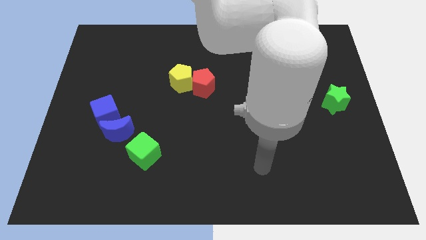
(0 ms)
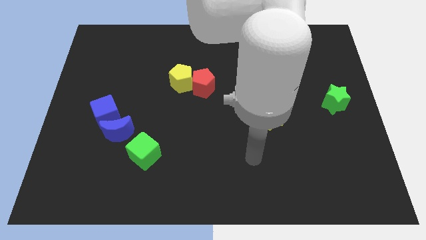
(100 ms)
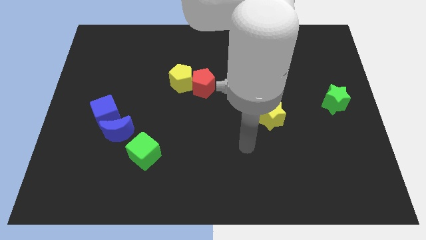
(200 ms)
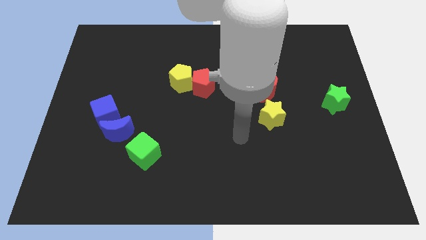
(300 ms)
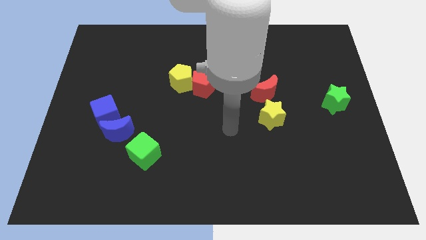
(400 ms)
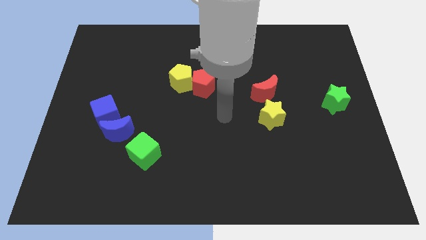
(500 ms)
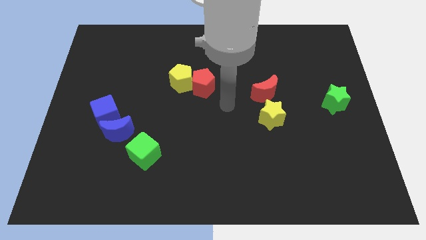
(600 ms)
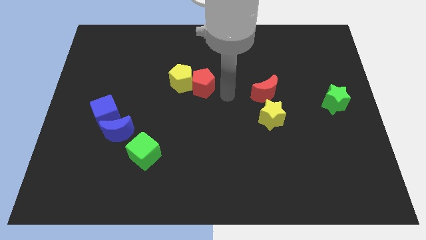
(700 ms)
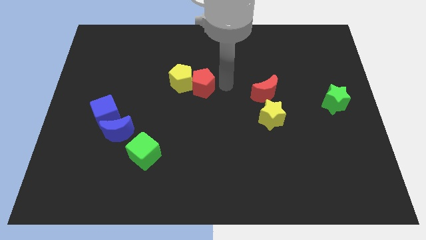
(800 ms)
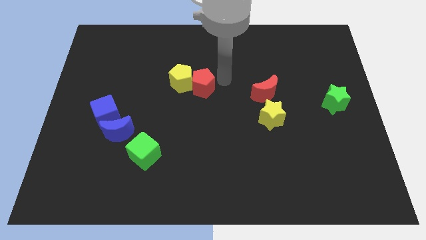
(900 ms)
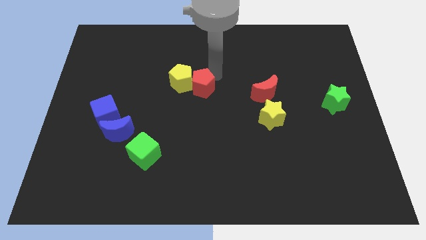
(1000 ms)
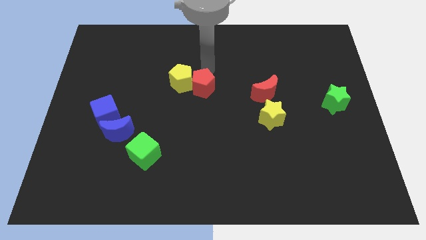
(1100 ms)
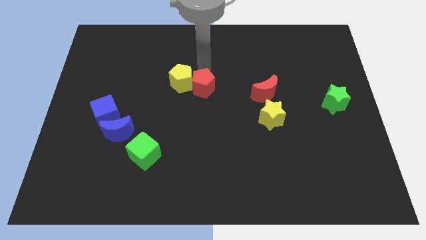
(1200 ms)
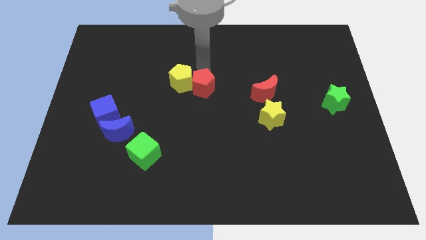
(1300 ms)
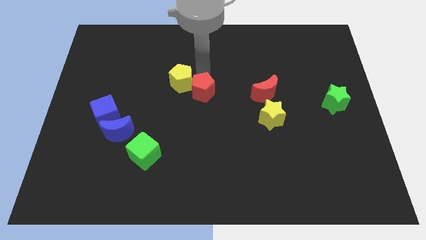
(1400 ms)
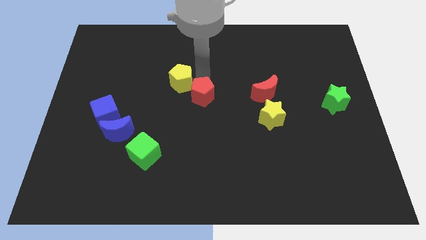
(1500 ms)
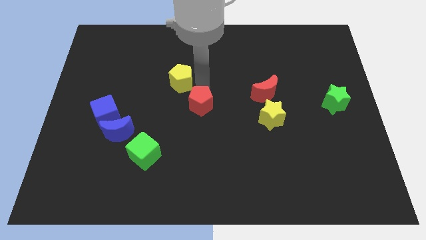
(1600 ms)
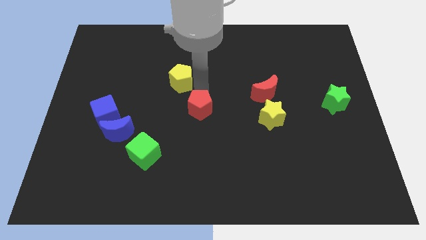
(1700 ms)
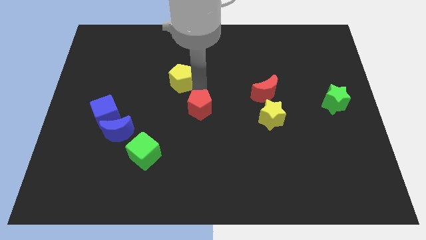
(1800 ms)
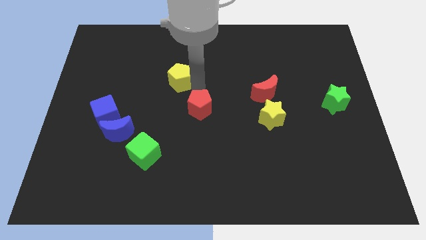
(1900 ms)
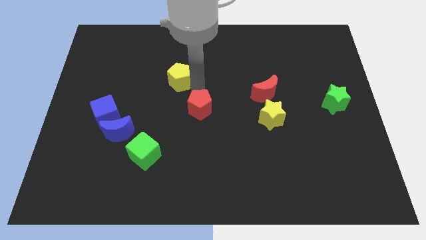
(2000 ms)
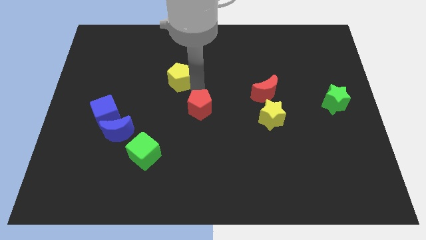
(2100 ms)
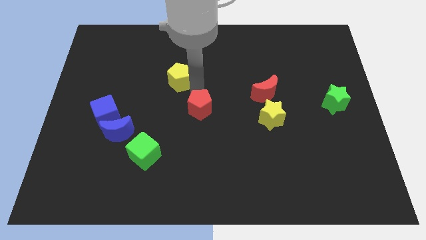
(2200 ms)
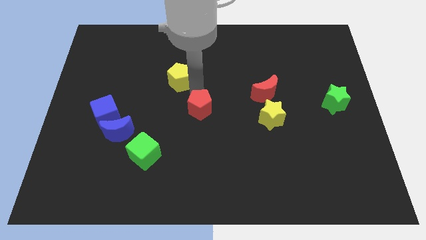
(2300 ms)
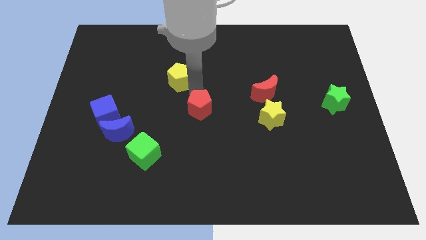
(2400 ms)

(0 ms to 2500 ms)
push the red pentagon a little downwards

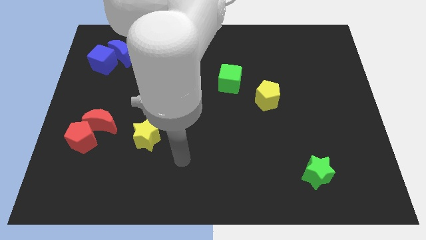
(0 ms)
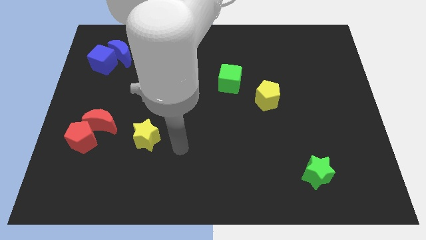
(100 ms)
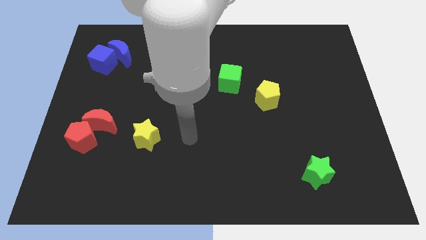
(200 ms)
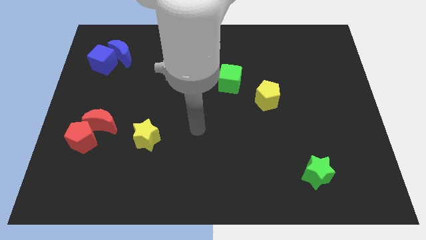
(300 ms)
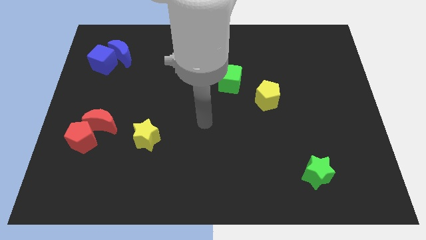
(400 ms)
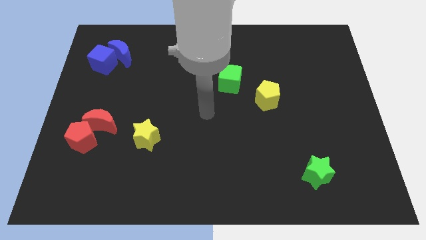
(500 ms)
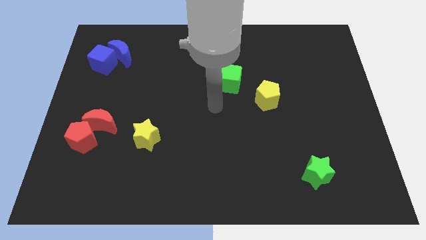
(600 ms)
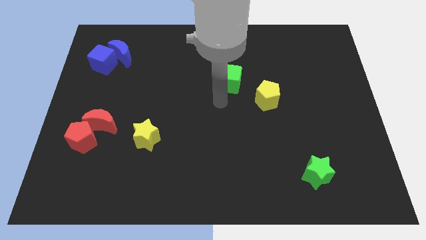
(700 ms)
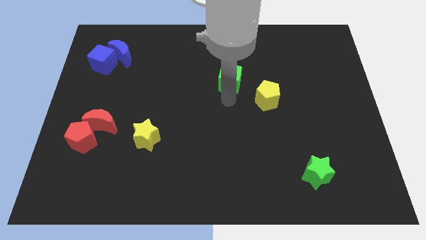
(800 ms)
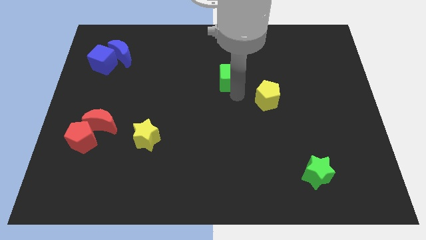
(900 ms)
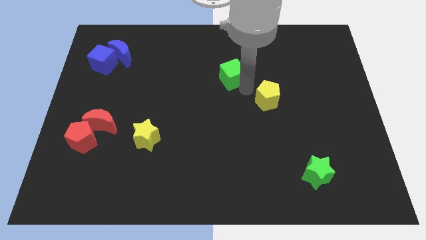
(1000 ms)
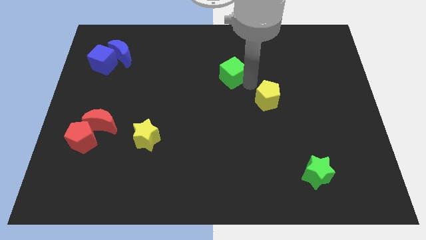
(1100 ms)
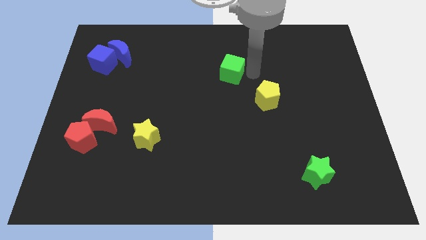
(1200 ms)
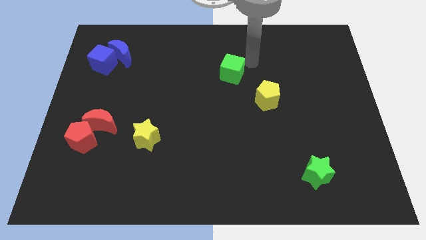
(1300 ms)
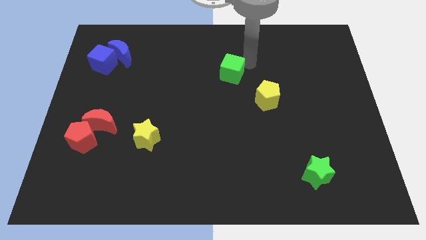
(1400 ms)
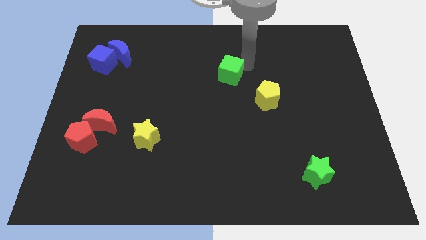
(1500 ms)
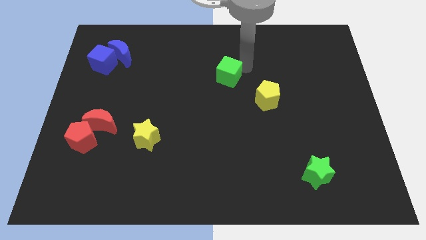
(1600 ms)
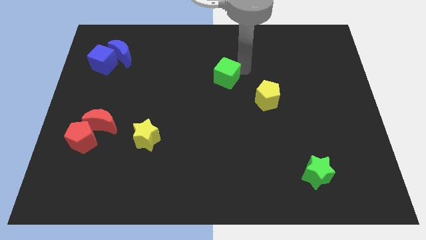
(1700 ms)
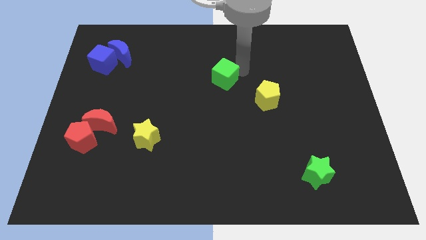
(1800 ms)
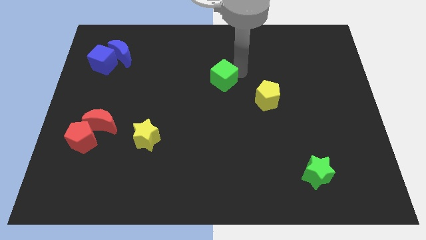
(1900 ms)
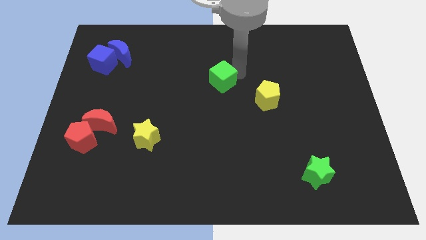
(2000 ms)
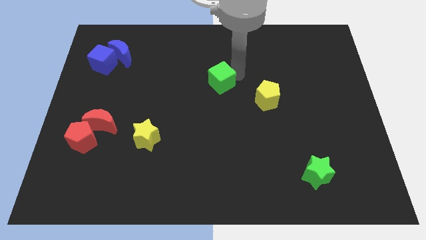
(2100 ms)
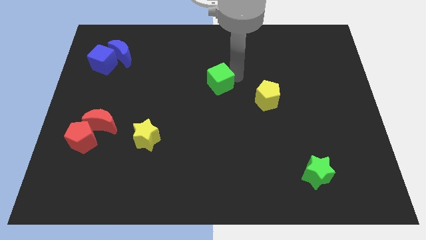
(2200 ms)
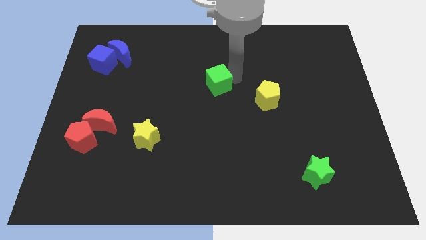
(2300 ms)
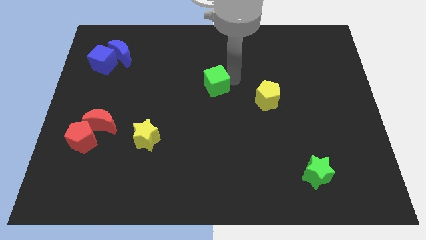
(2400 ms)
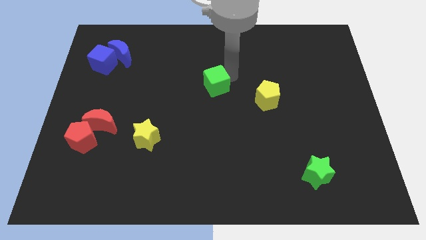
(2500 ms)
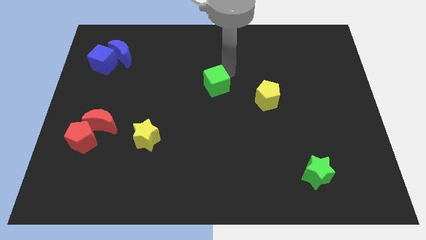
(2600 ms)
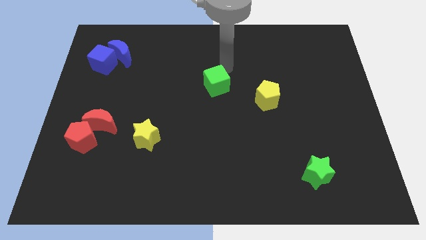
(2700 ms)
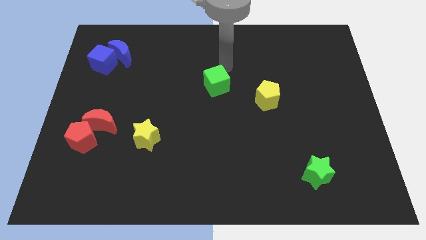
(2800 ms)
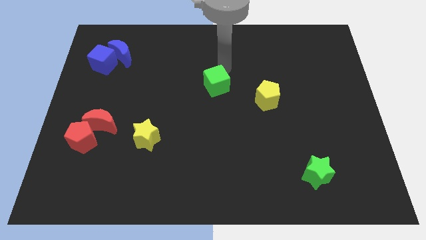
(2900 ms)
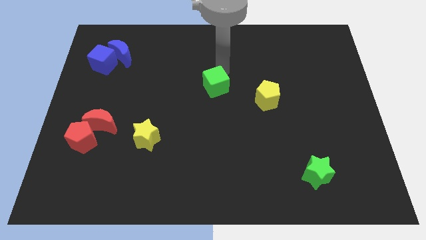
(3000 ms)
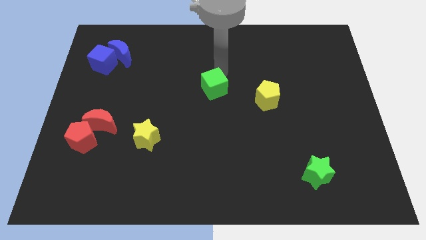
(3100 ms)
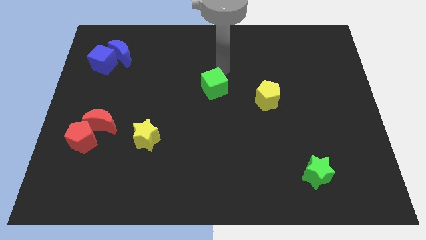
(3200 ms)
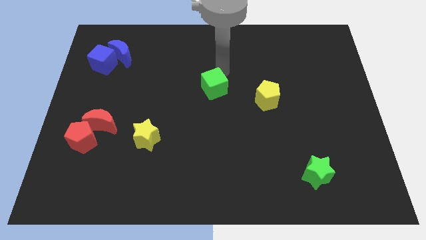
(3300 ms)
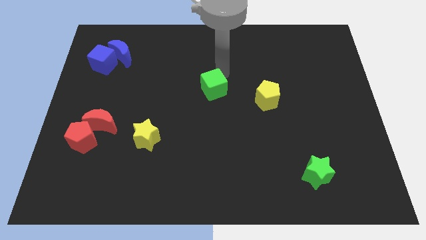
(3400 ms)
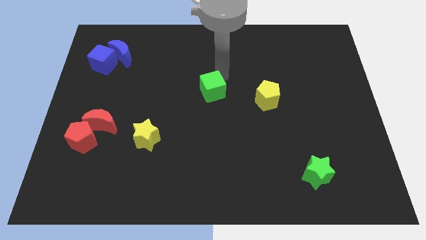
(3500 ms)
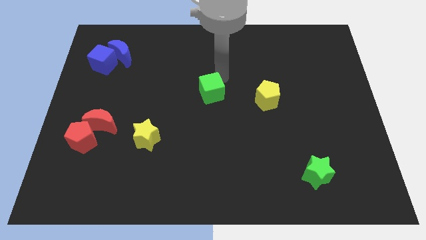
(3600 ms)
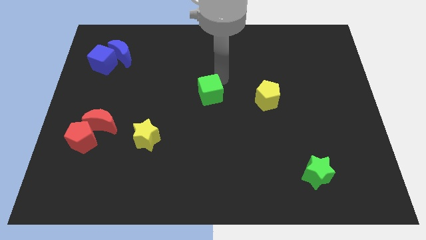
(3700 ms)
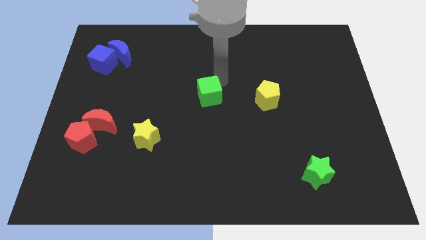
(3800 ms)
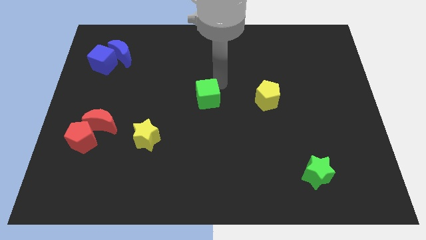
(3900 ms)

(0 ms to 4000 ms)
slightly push the green cube diagonally down and left

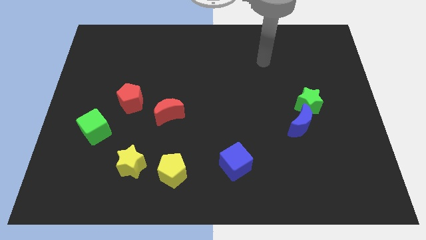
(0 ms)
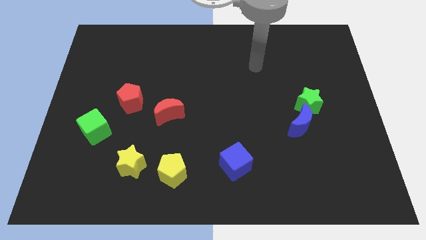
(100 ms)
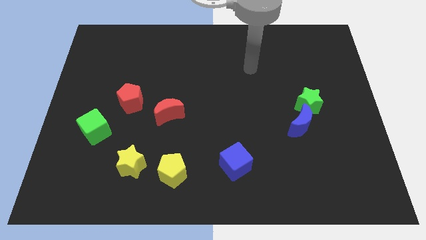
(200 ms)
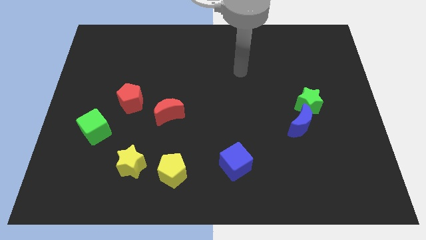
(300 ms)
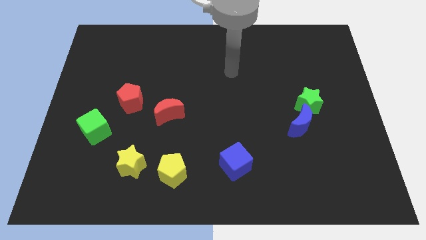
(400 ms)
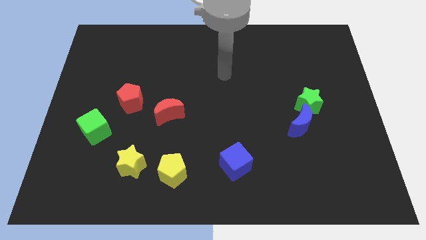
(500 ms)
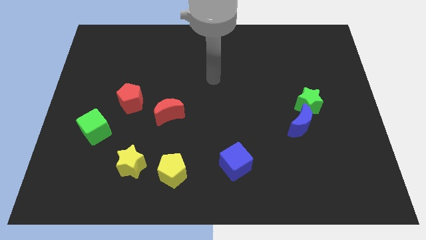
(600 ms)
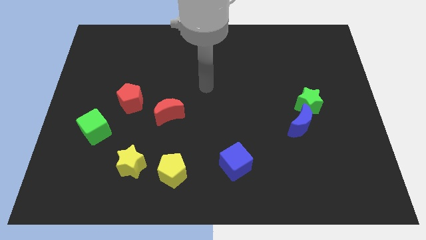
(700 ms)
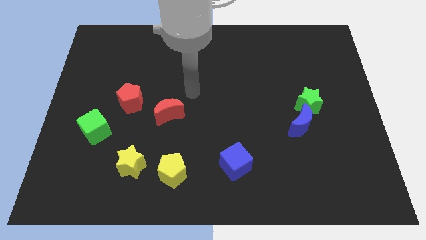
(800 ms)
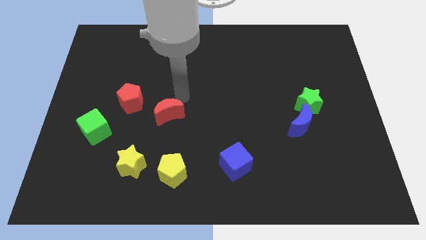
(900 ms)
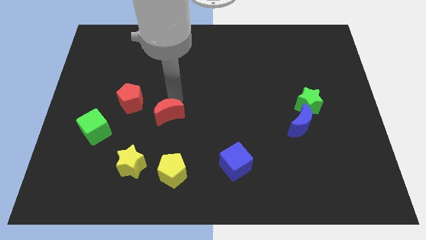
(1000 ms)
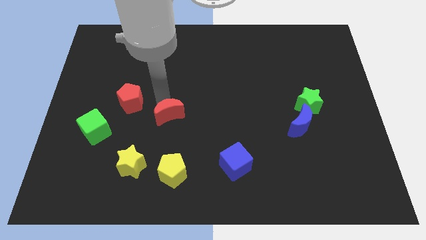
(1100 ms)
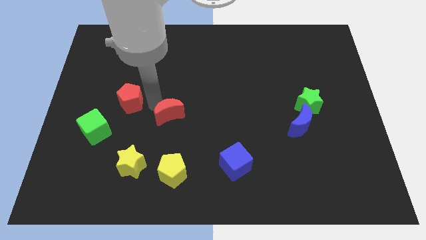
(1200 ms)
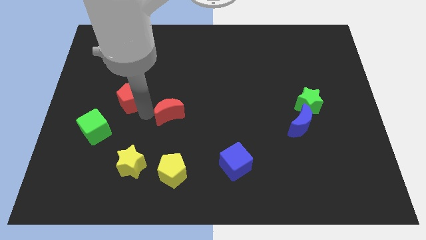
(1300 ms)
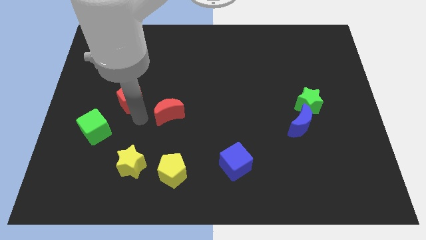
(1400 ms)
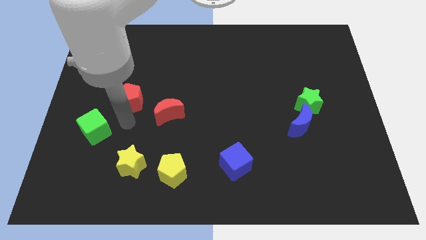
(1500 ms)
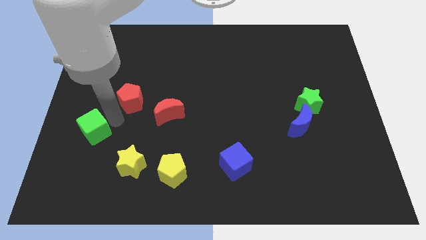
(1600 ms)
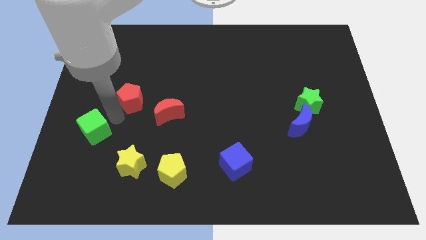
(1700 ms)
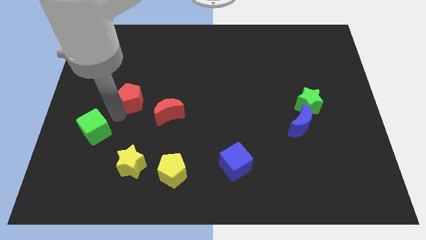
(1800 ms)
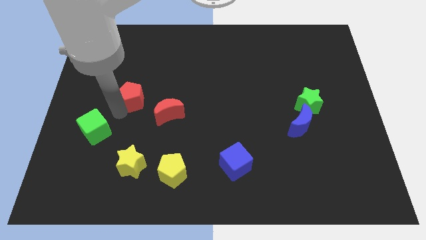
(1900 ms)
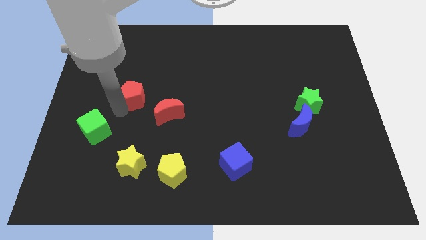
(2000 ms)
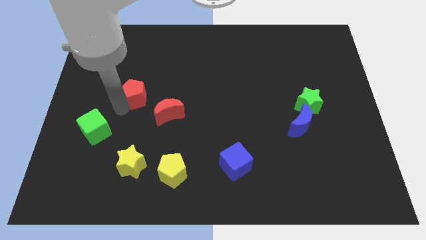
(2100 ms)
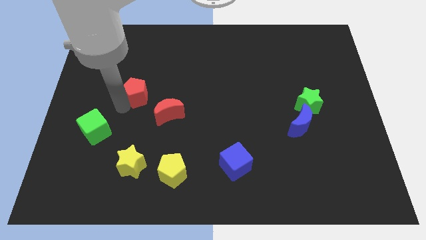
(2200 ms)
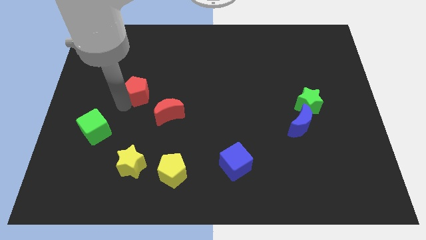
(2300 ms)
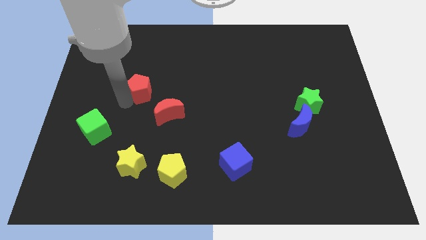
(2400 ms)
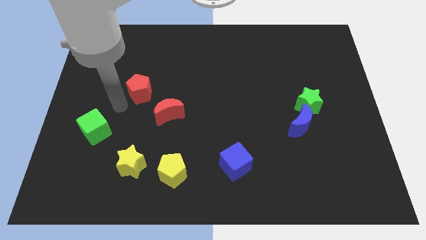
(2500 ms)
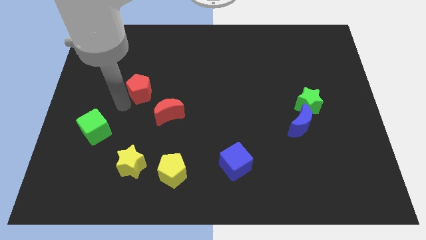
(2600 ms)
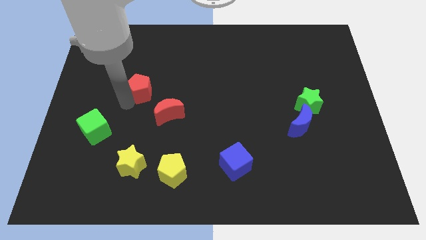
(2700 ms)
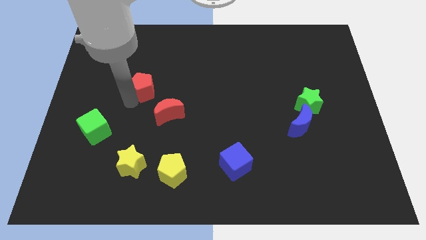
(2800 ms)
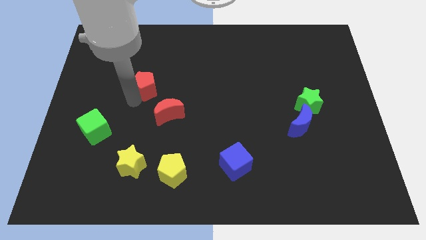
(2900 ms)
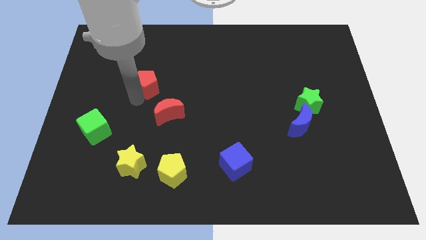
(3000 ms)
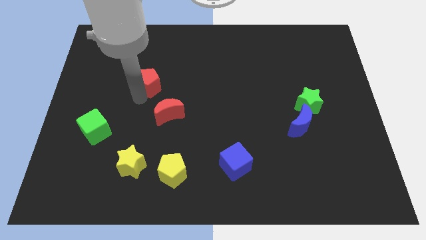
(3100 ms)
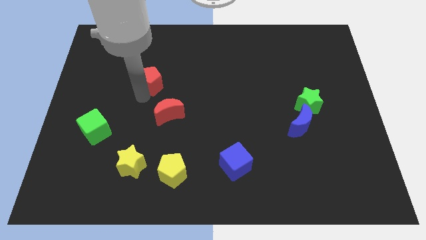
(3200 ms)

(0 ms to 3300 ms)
move the red pentagon upwards and then right slightly
